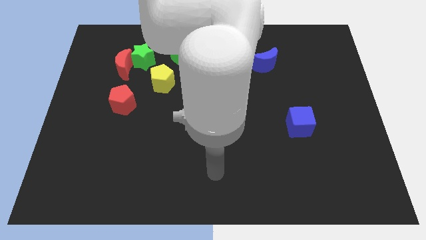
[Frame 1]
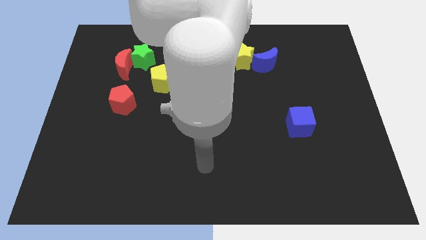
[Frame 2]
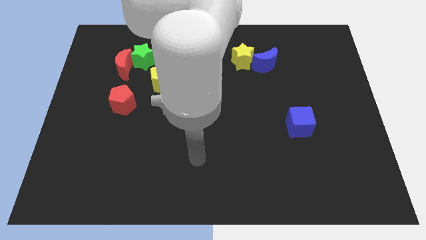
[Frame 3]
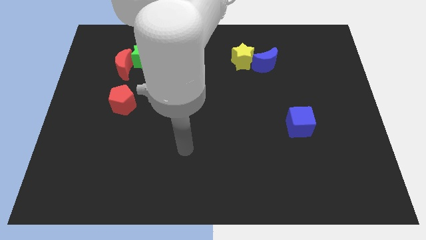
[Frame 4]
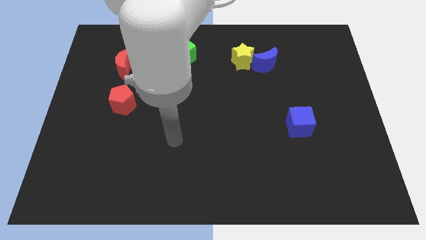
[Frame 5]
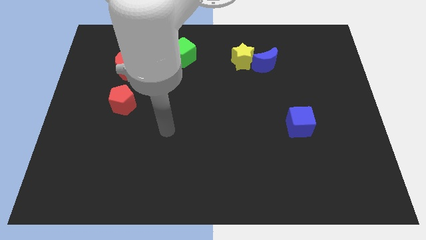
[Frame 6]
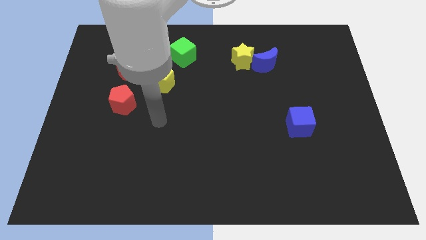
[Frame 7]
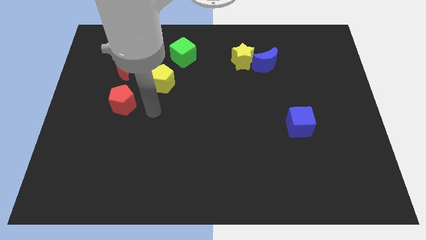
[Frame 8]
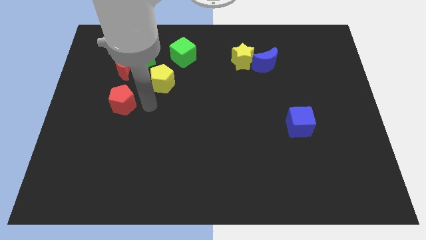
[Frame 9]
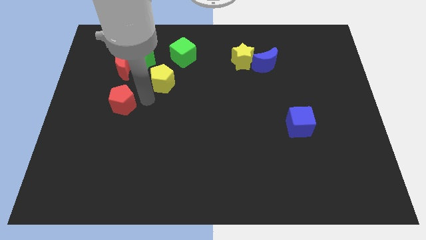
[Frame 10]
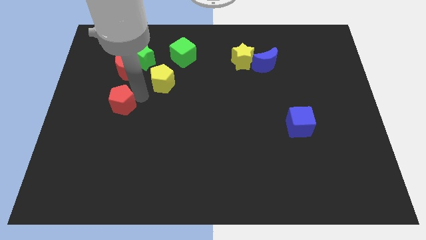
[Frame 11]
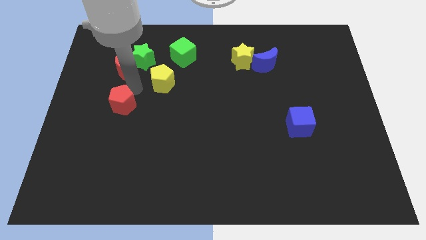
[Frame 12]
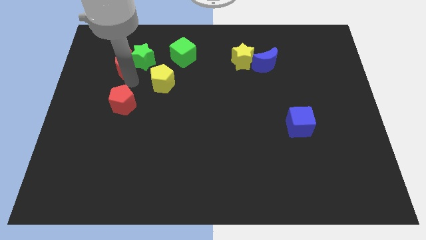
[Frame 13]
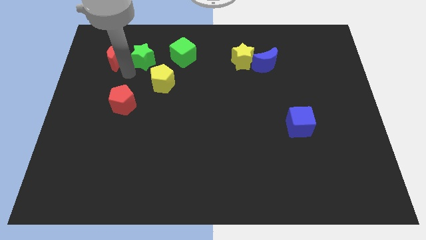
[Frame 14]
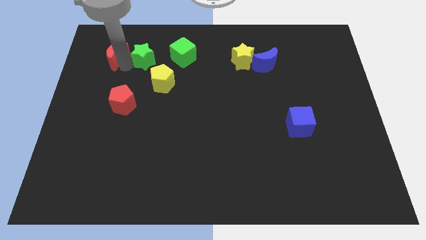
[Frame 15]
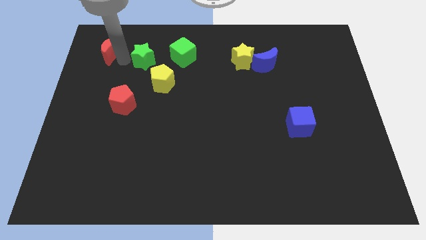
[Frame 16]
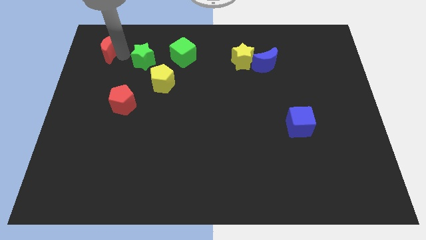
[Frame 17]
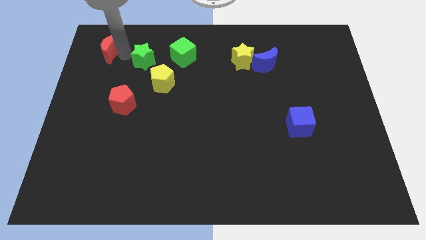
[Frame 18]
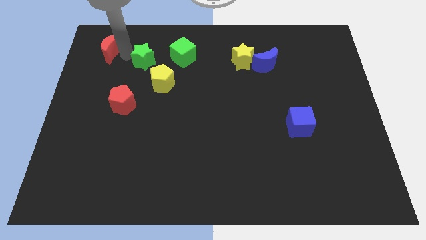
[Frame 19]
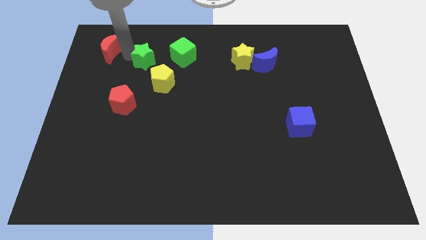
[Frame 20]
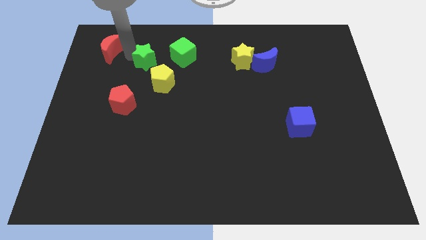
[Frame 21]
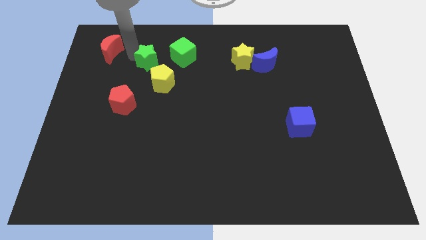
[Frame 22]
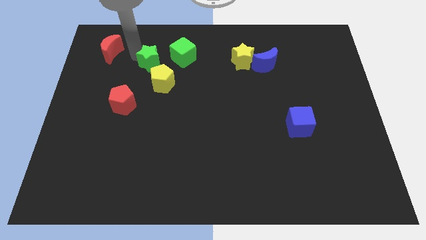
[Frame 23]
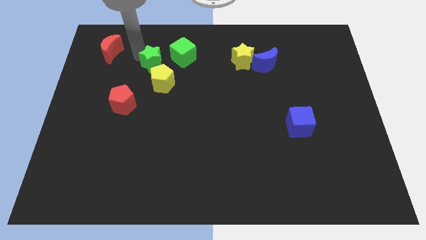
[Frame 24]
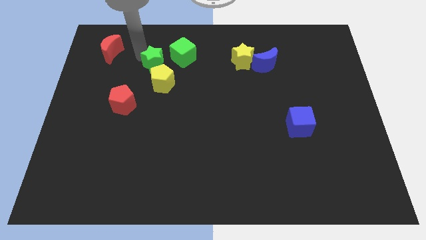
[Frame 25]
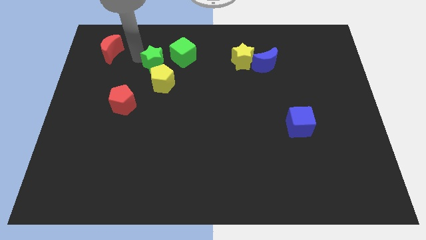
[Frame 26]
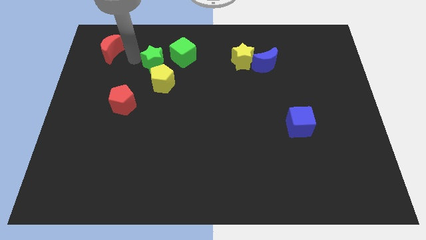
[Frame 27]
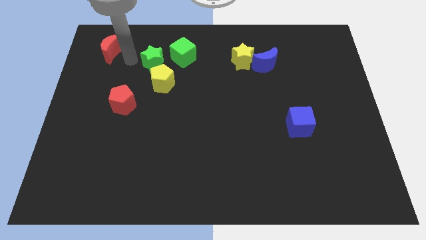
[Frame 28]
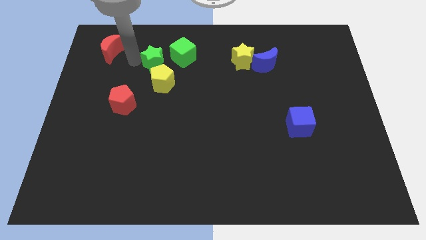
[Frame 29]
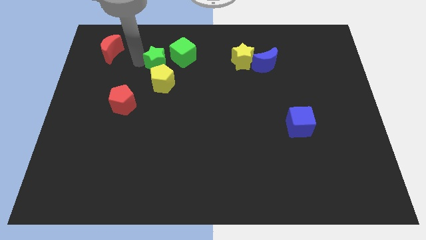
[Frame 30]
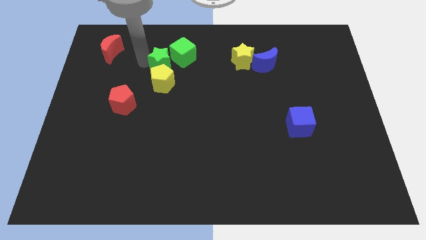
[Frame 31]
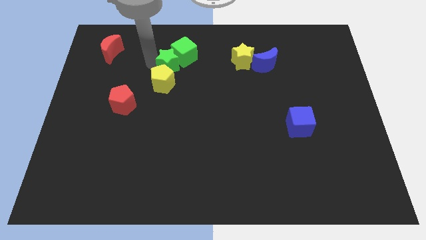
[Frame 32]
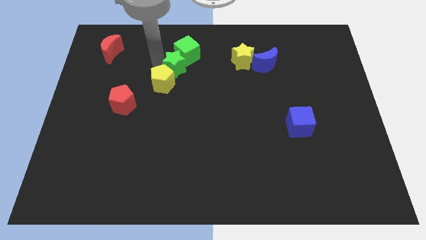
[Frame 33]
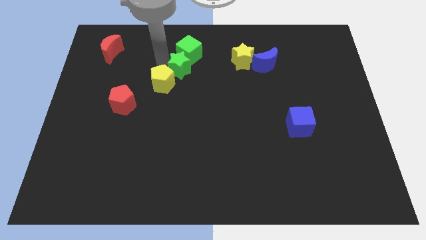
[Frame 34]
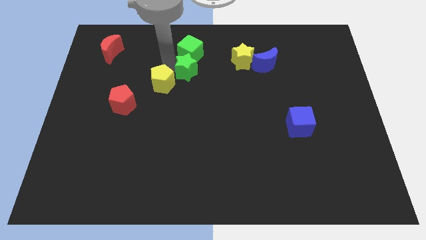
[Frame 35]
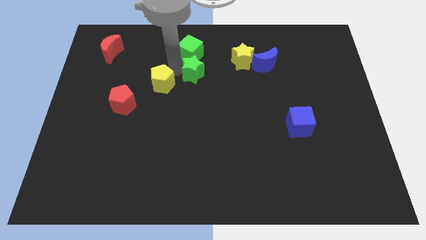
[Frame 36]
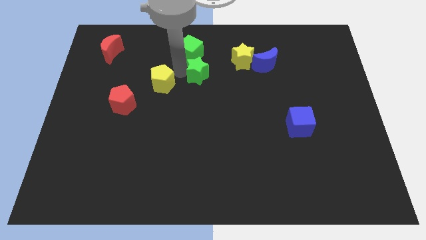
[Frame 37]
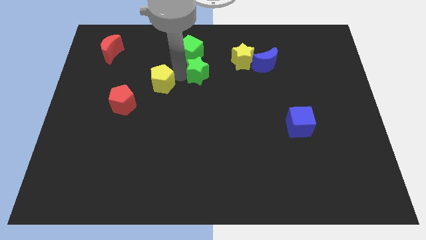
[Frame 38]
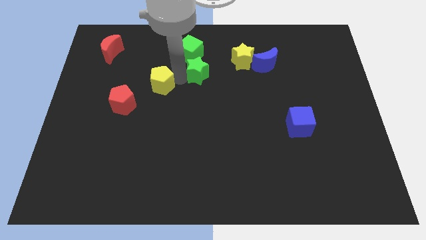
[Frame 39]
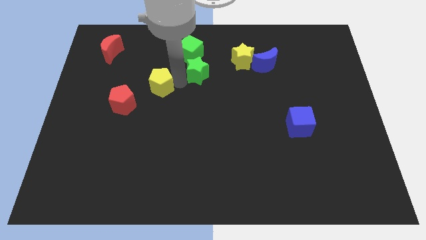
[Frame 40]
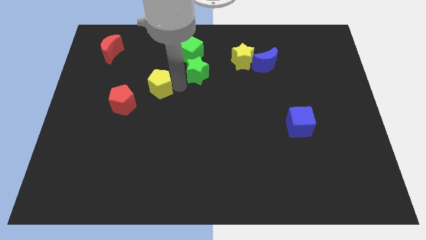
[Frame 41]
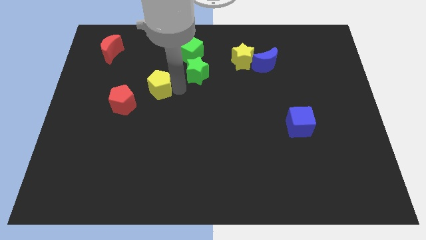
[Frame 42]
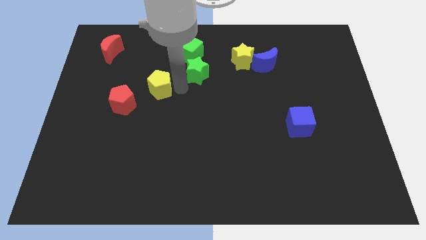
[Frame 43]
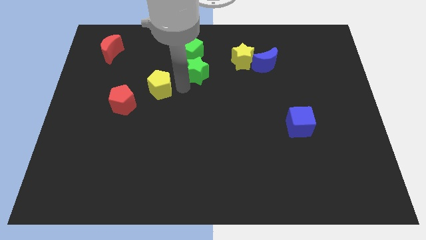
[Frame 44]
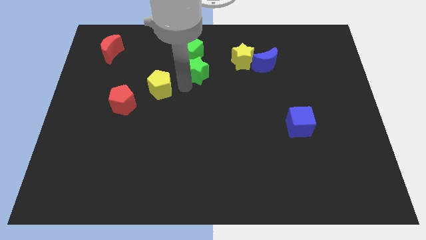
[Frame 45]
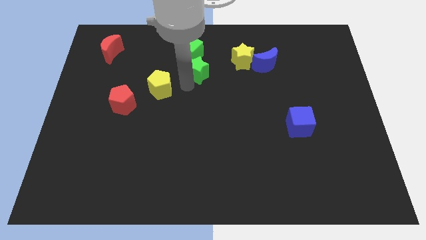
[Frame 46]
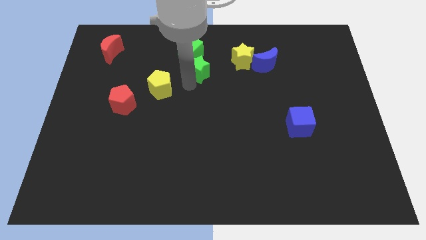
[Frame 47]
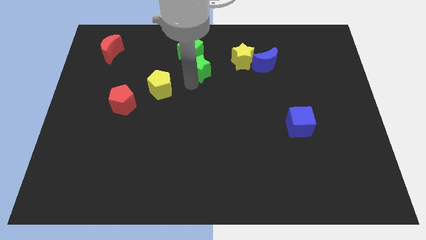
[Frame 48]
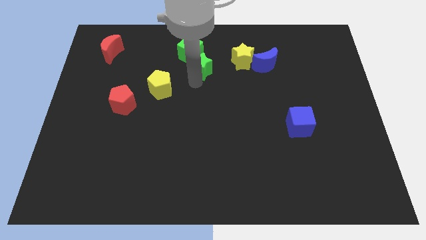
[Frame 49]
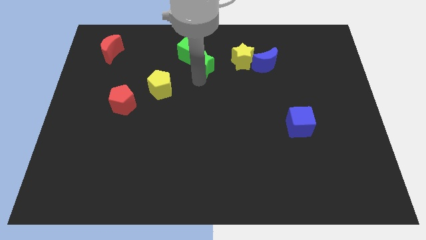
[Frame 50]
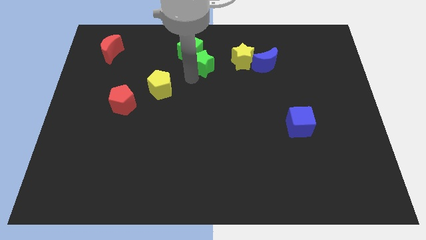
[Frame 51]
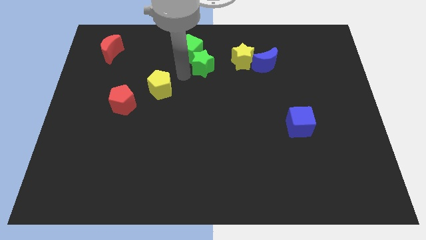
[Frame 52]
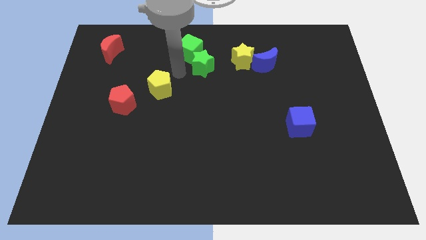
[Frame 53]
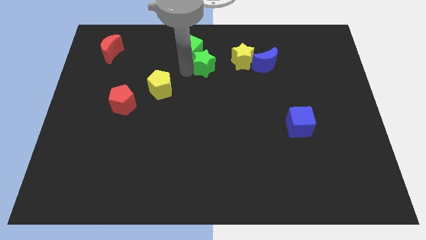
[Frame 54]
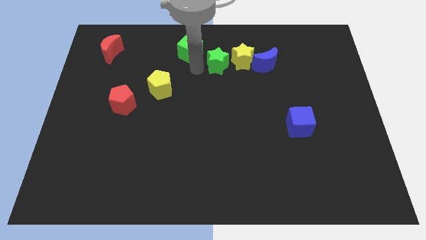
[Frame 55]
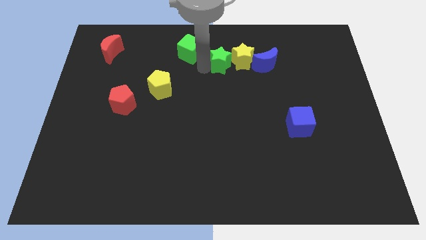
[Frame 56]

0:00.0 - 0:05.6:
put the green star towards the yellow star

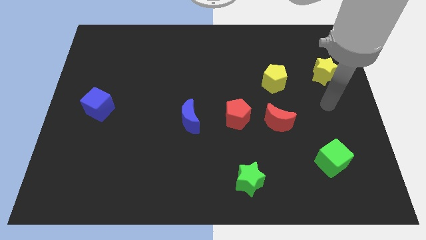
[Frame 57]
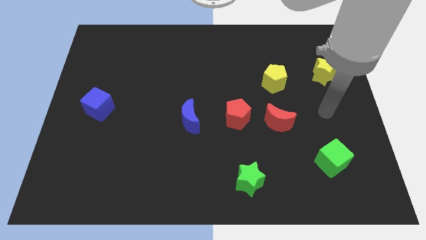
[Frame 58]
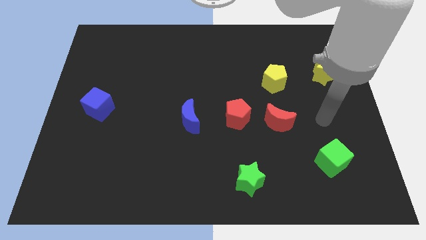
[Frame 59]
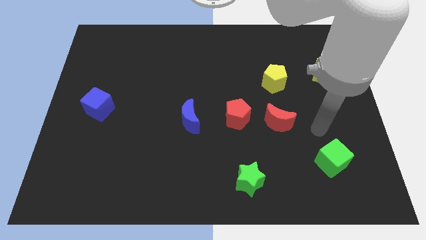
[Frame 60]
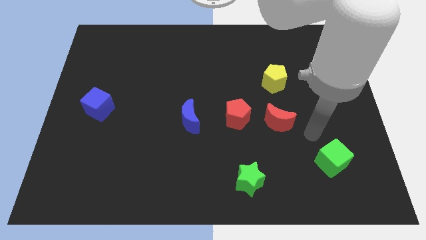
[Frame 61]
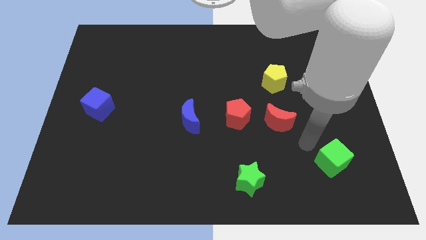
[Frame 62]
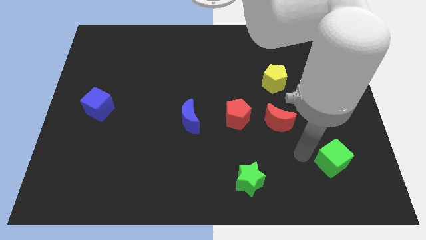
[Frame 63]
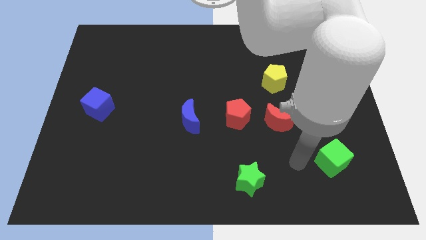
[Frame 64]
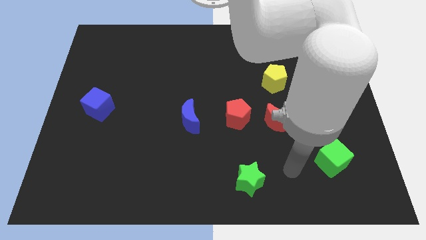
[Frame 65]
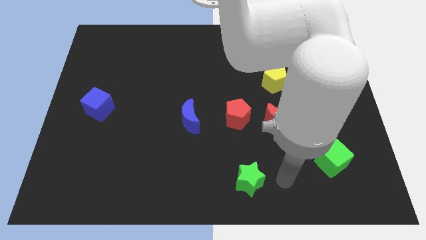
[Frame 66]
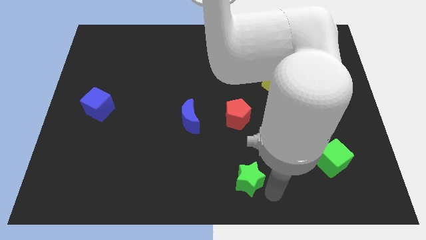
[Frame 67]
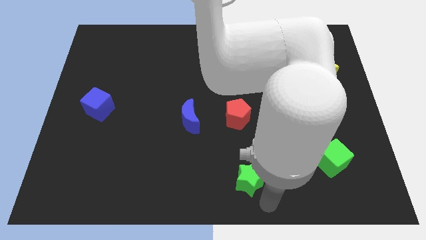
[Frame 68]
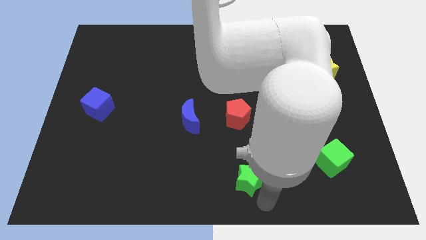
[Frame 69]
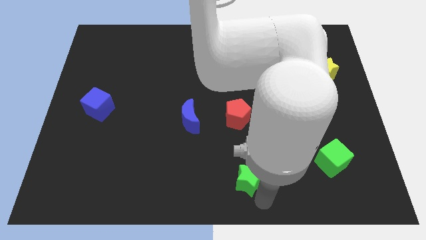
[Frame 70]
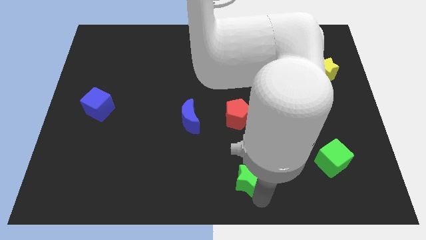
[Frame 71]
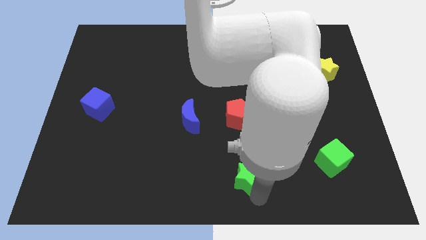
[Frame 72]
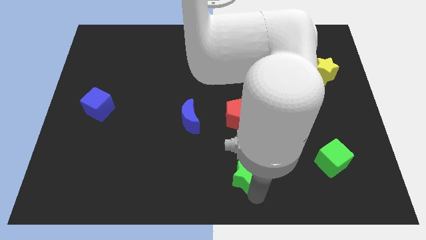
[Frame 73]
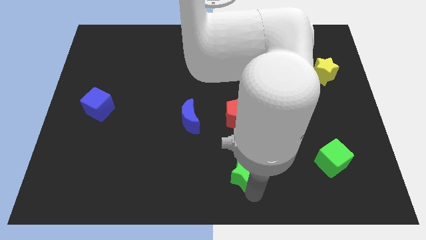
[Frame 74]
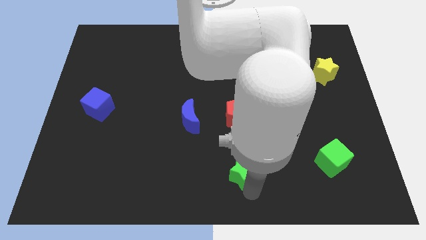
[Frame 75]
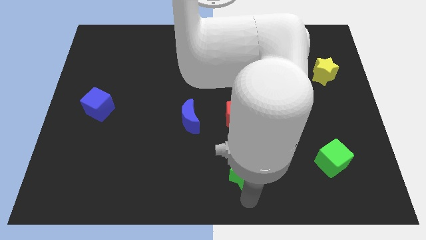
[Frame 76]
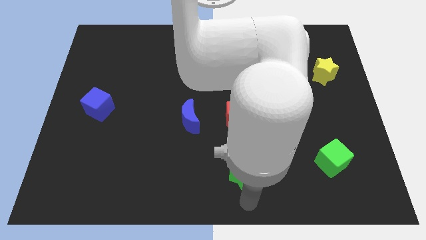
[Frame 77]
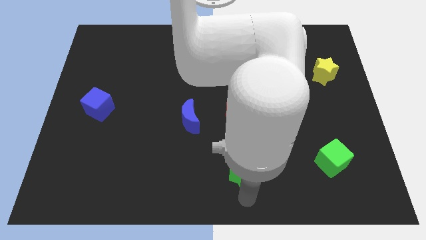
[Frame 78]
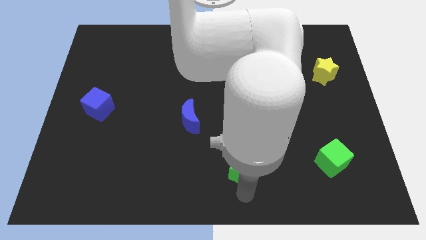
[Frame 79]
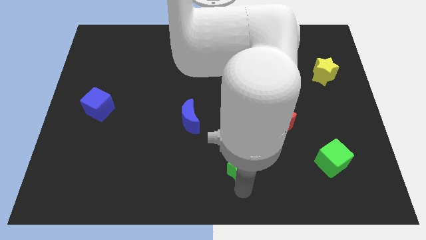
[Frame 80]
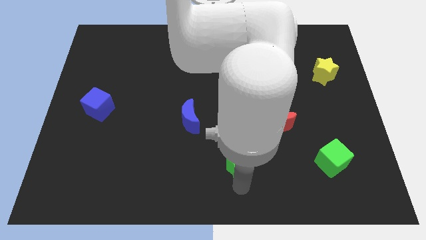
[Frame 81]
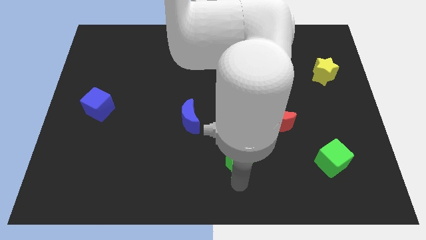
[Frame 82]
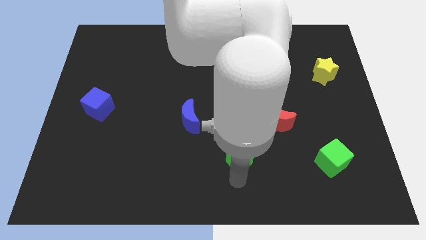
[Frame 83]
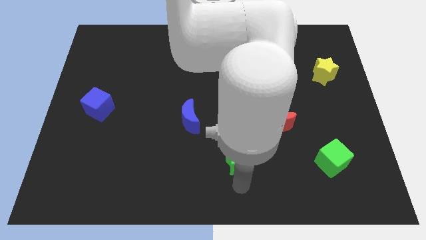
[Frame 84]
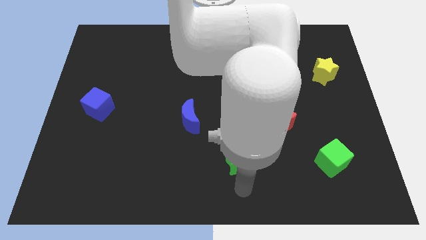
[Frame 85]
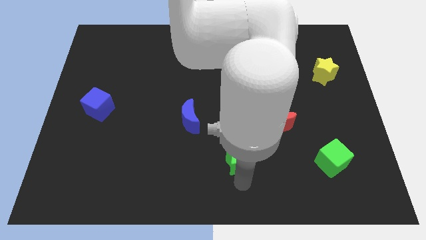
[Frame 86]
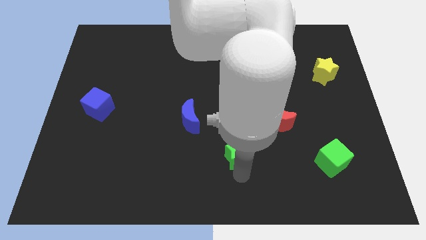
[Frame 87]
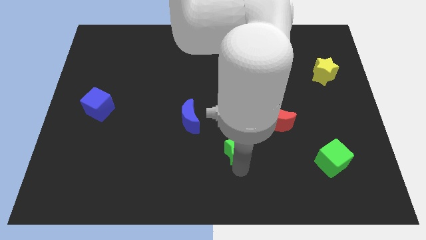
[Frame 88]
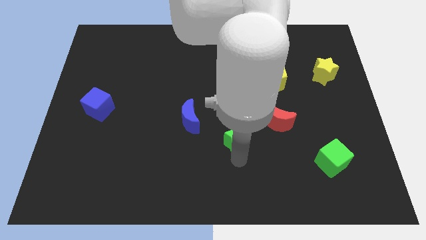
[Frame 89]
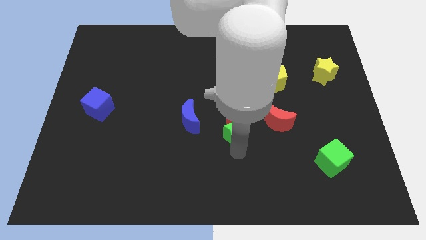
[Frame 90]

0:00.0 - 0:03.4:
move the green star to the red pentagon
